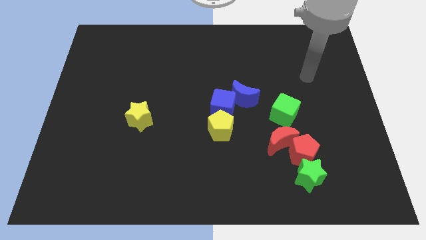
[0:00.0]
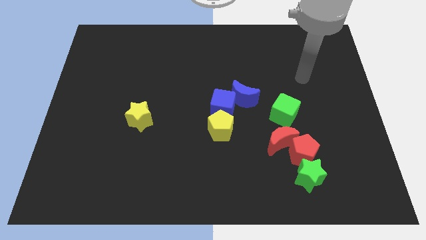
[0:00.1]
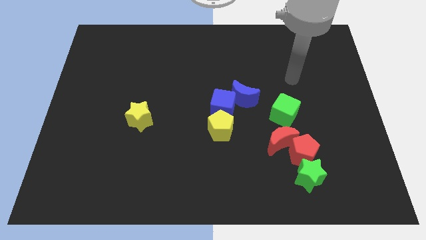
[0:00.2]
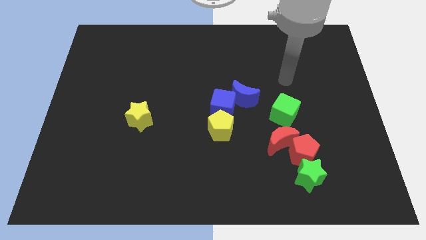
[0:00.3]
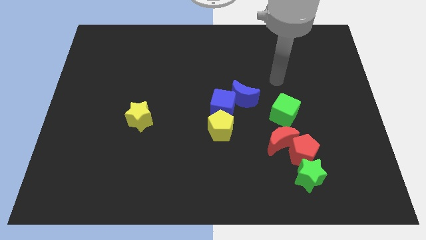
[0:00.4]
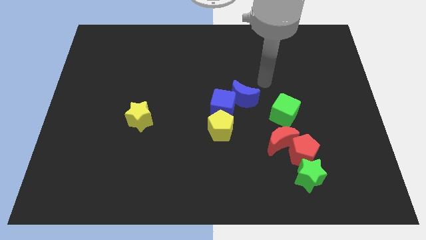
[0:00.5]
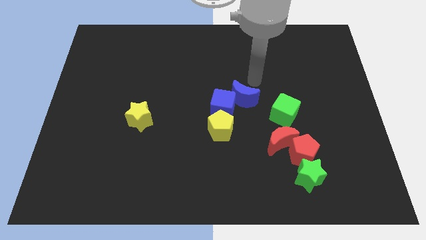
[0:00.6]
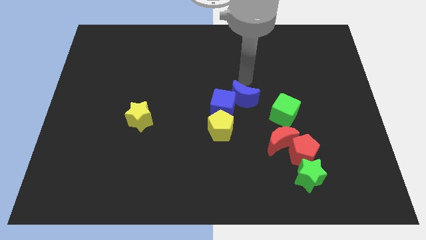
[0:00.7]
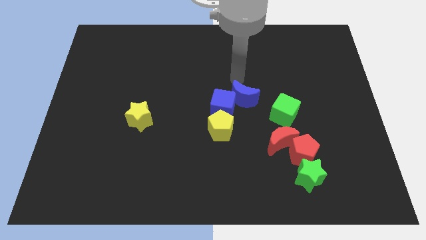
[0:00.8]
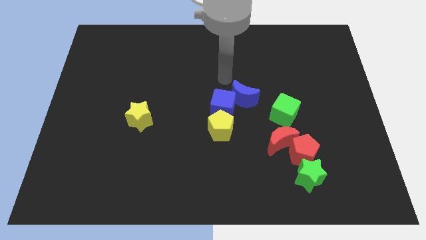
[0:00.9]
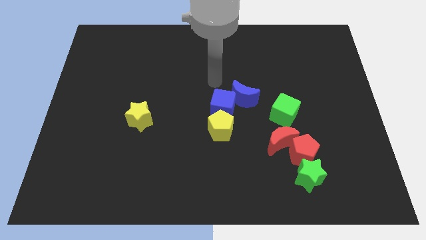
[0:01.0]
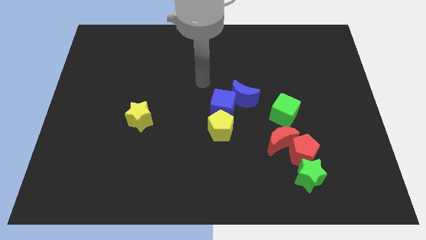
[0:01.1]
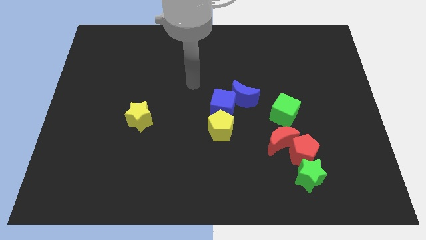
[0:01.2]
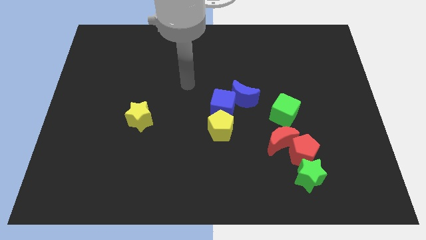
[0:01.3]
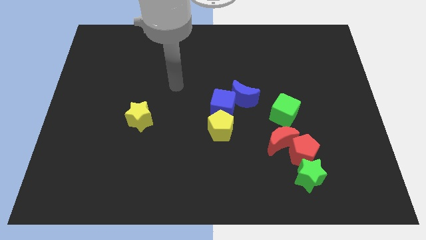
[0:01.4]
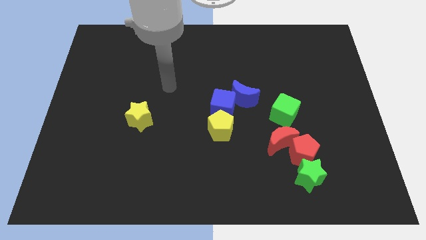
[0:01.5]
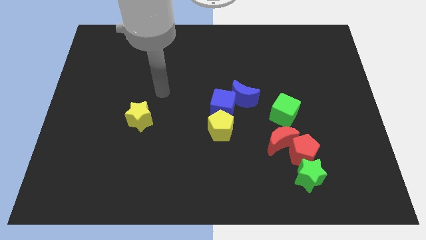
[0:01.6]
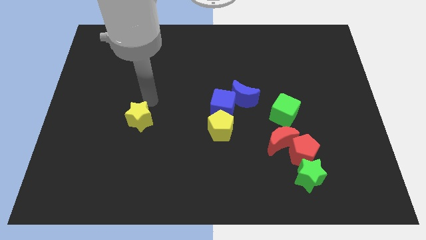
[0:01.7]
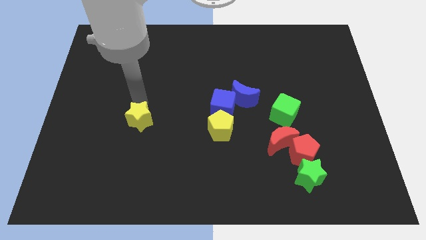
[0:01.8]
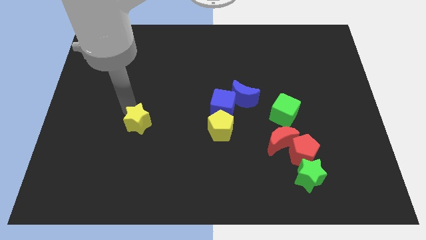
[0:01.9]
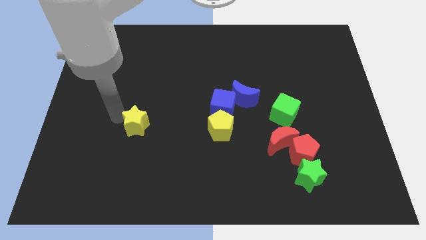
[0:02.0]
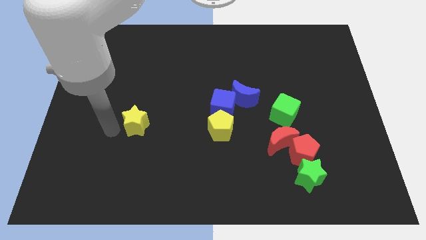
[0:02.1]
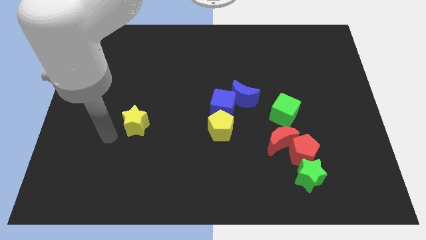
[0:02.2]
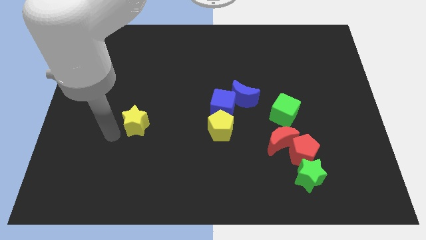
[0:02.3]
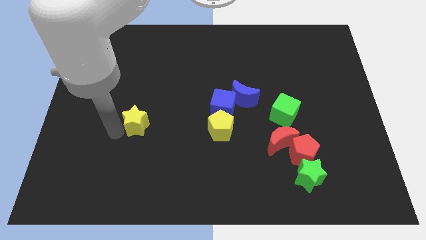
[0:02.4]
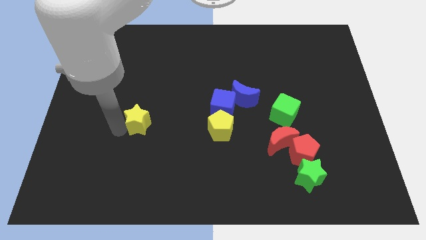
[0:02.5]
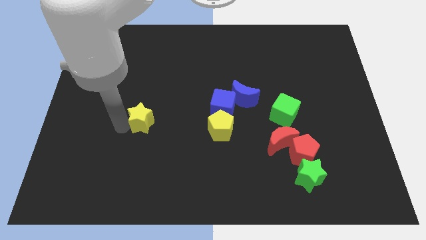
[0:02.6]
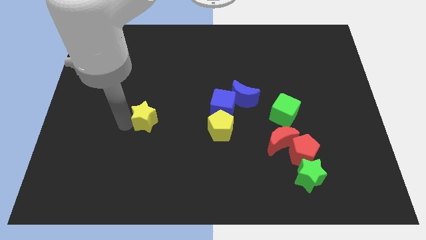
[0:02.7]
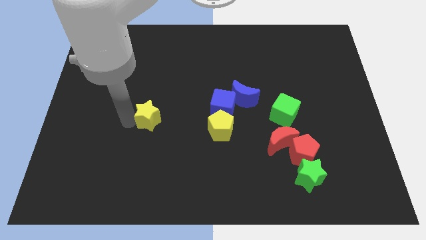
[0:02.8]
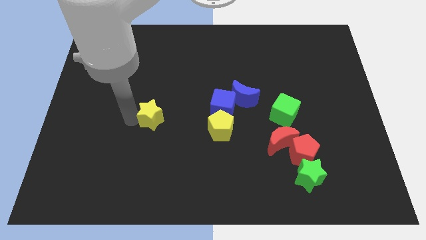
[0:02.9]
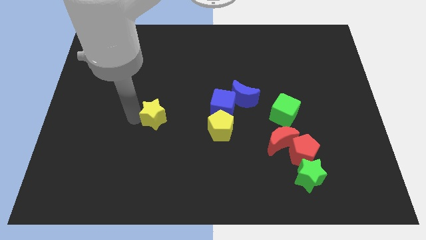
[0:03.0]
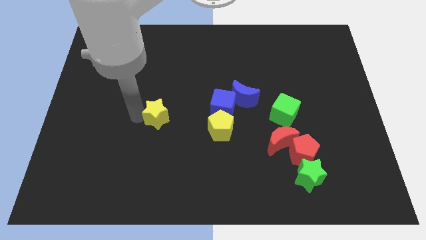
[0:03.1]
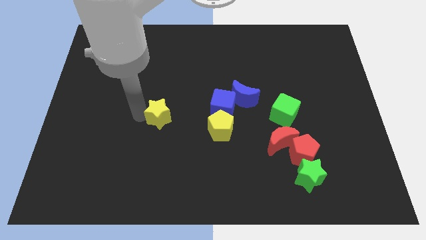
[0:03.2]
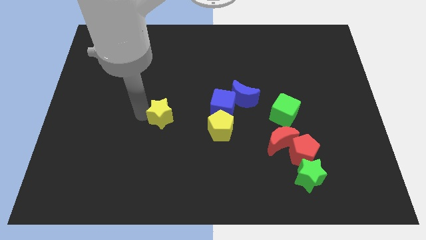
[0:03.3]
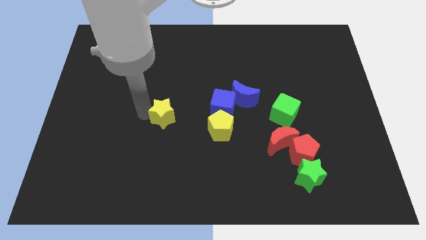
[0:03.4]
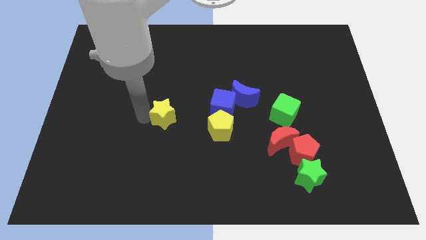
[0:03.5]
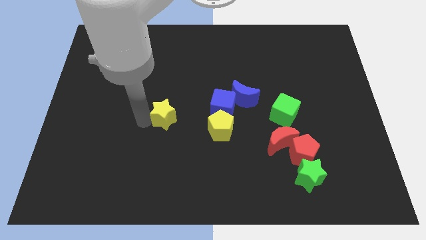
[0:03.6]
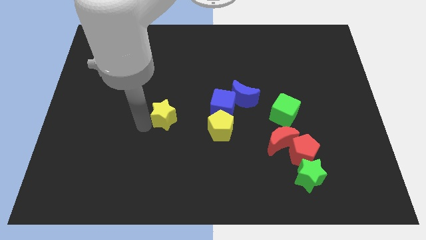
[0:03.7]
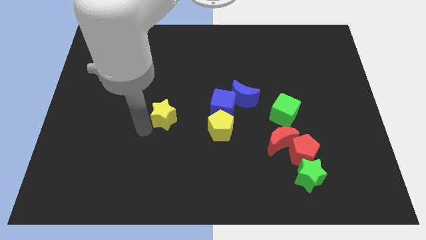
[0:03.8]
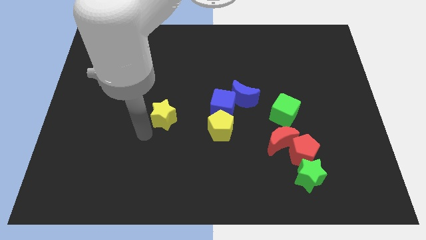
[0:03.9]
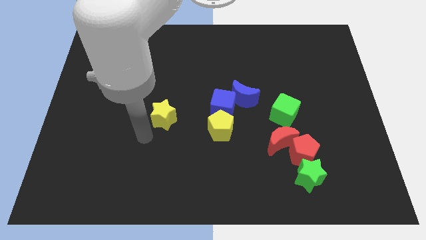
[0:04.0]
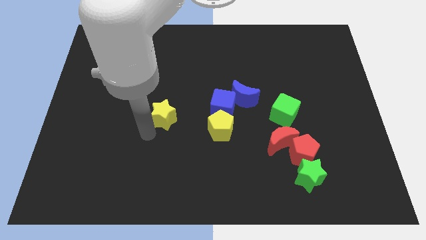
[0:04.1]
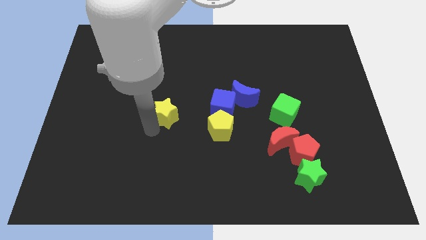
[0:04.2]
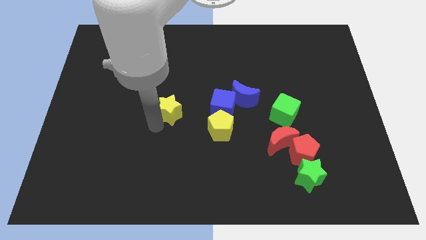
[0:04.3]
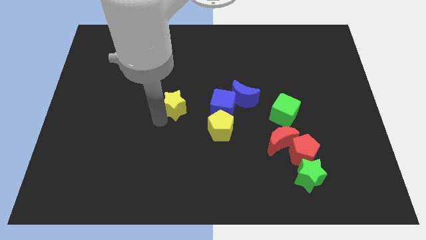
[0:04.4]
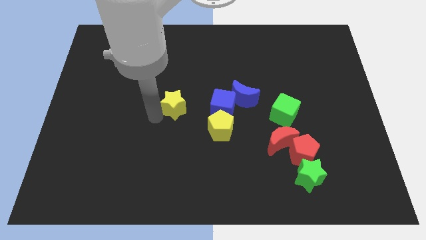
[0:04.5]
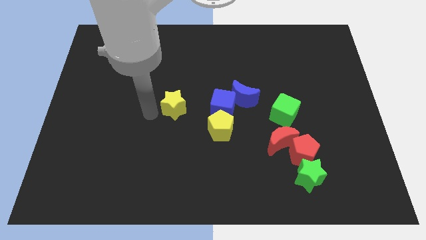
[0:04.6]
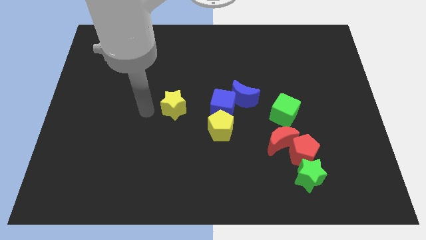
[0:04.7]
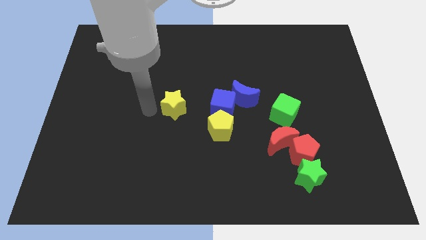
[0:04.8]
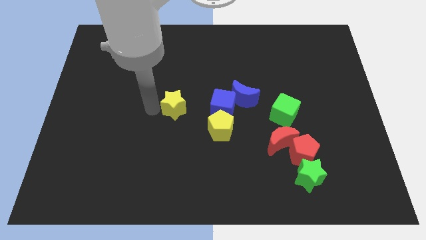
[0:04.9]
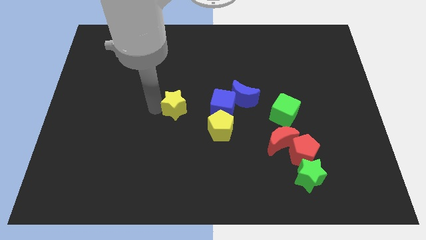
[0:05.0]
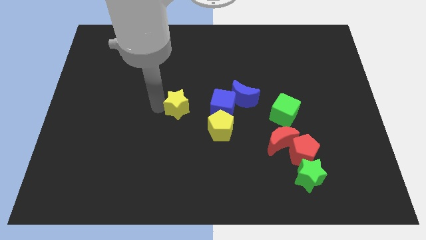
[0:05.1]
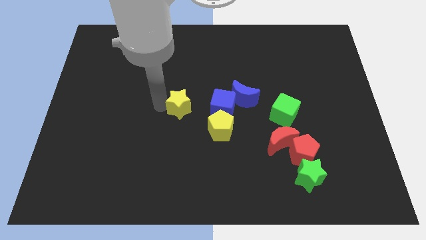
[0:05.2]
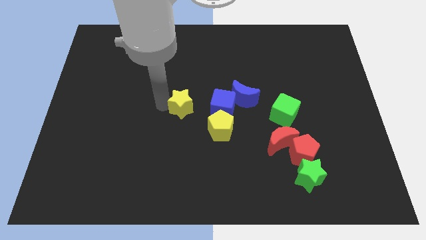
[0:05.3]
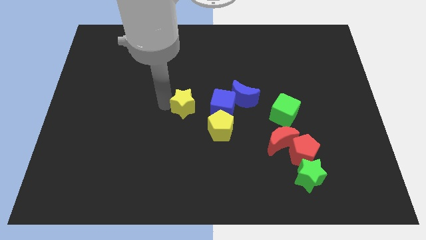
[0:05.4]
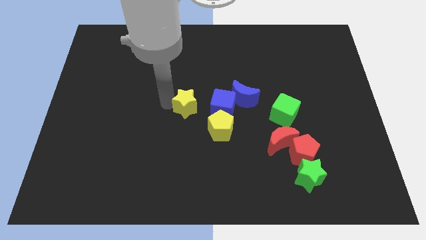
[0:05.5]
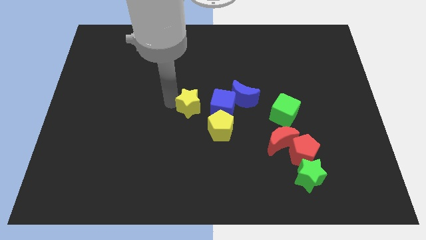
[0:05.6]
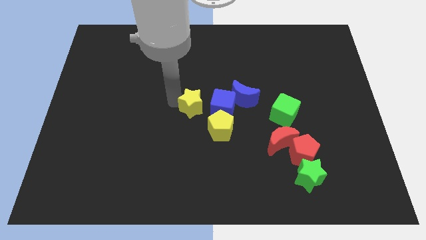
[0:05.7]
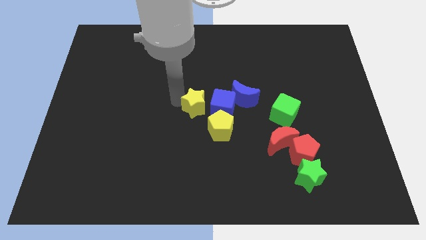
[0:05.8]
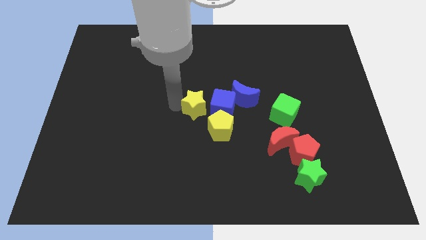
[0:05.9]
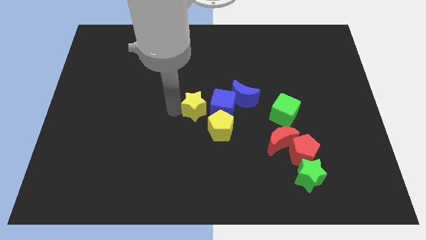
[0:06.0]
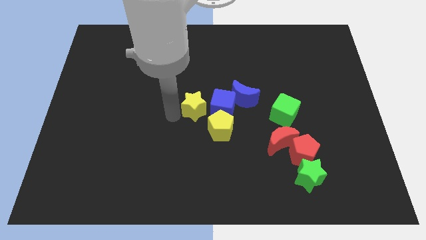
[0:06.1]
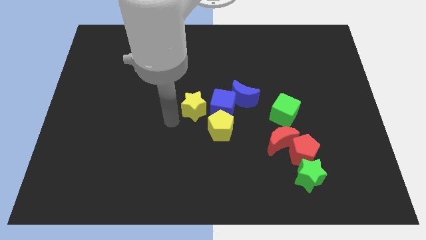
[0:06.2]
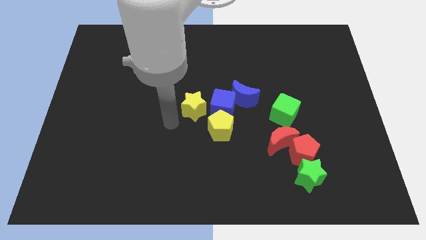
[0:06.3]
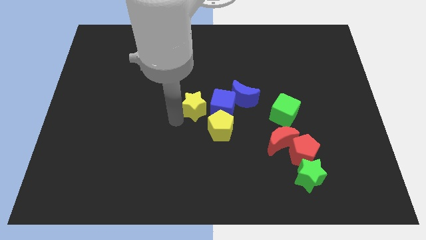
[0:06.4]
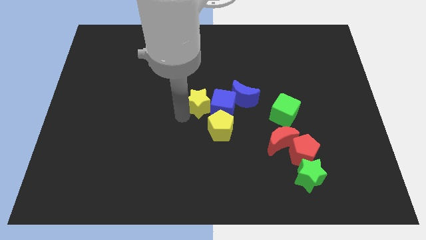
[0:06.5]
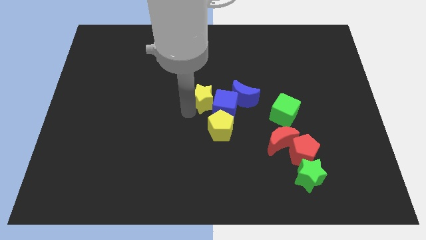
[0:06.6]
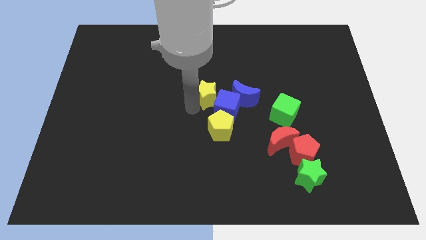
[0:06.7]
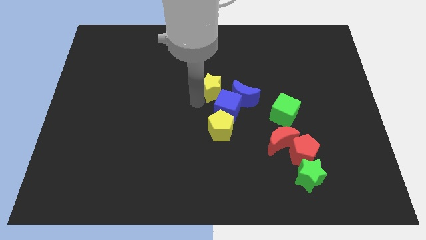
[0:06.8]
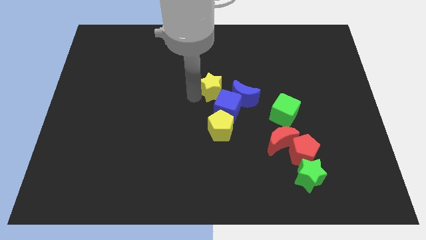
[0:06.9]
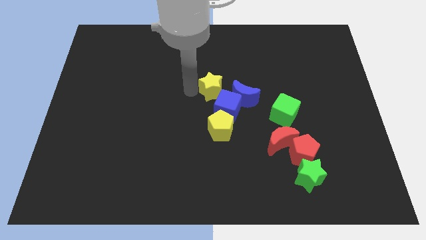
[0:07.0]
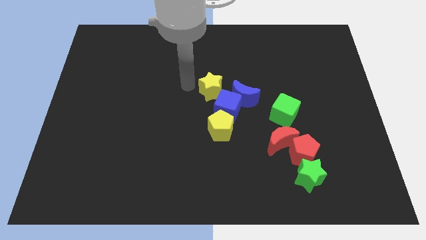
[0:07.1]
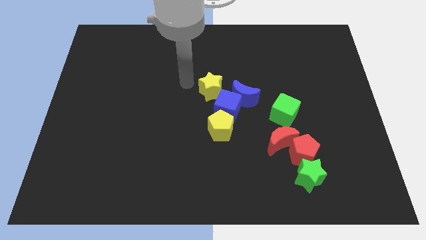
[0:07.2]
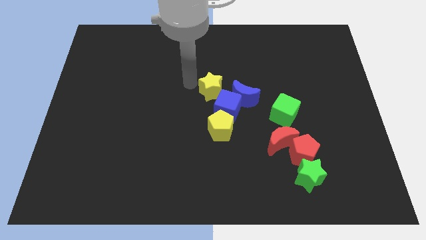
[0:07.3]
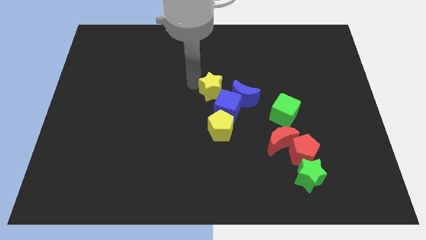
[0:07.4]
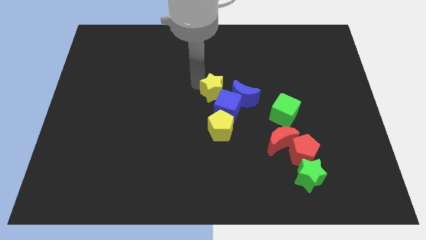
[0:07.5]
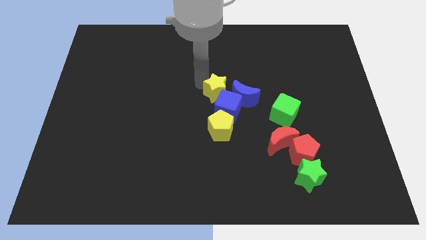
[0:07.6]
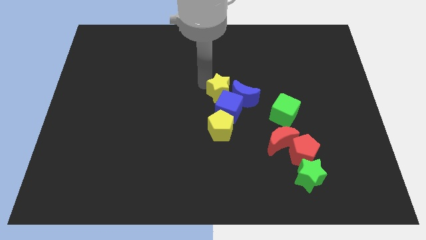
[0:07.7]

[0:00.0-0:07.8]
put the yellow star towards the blue moon
